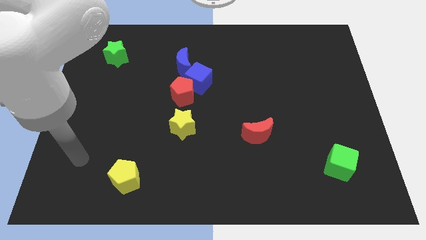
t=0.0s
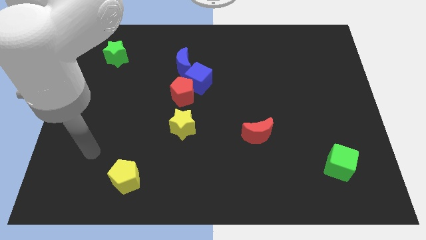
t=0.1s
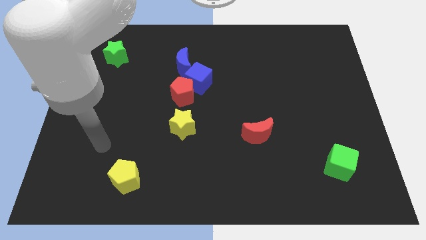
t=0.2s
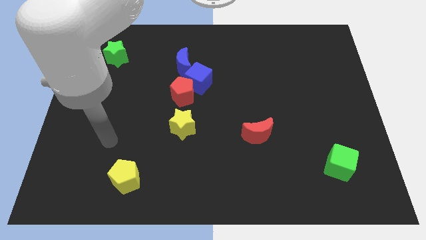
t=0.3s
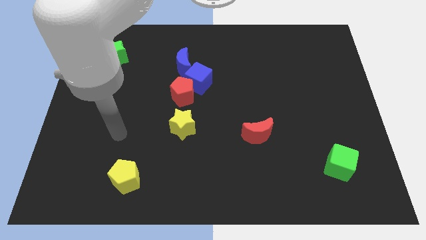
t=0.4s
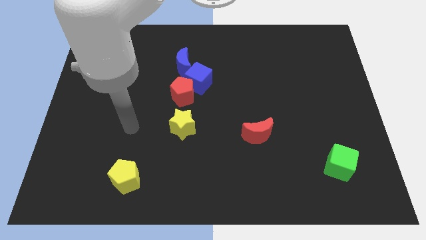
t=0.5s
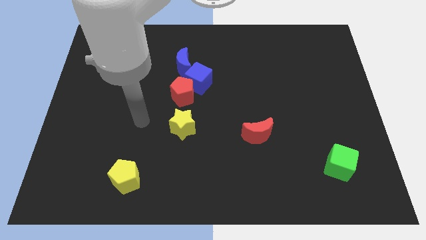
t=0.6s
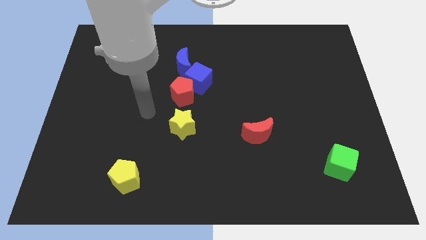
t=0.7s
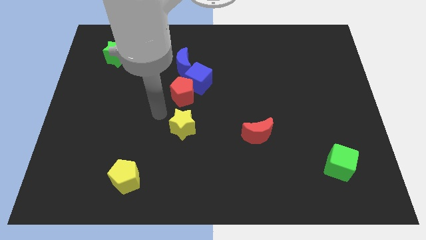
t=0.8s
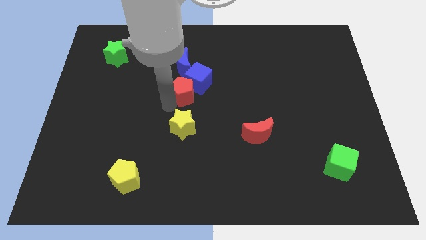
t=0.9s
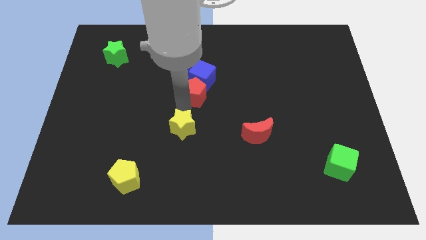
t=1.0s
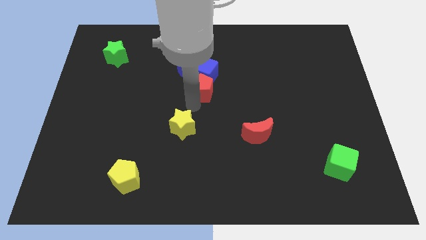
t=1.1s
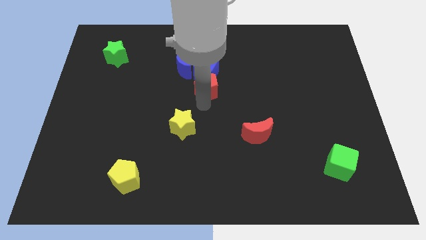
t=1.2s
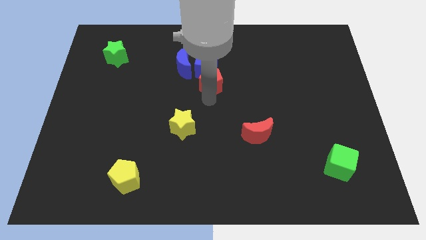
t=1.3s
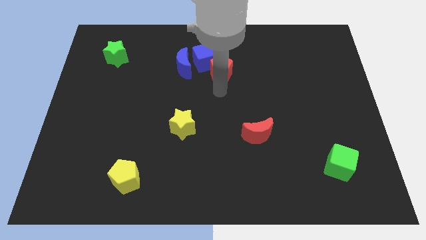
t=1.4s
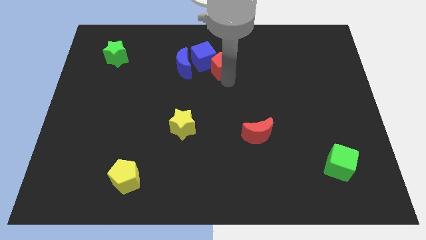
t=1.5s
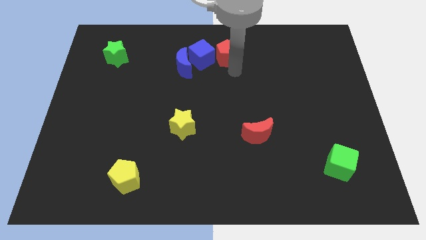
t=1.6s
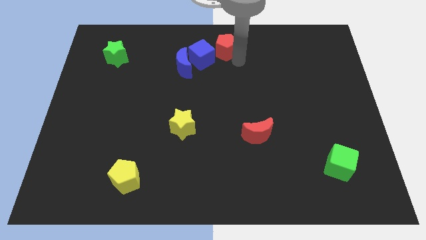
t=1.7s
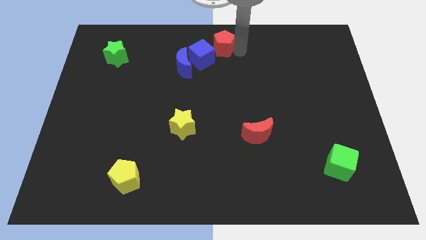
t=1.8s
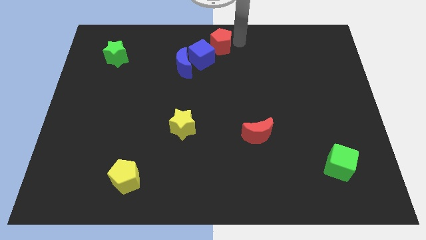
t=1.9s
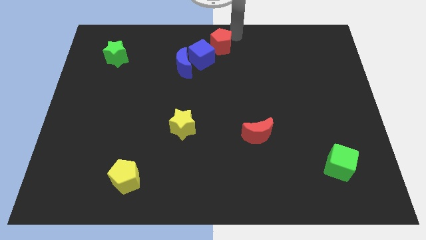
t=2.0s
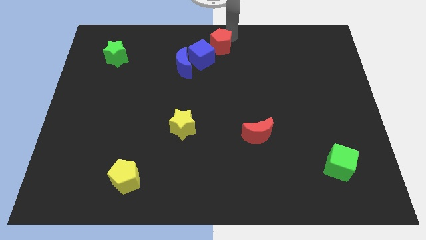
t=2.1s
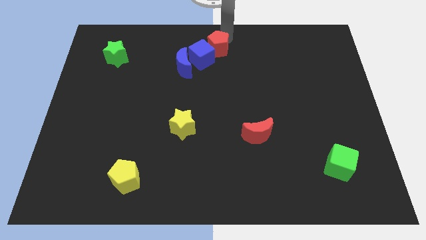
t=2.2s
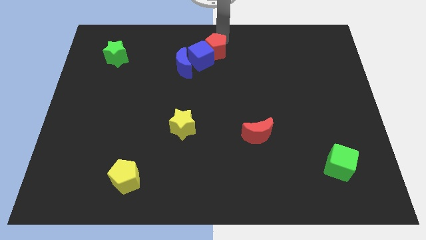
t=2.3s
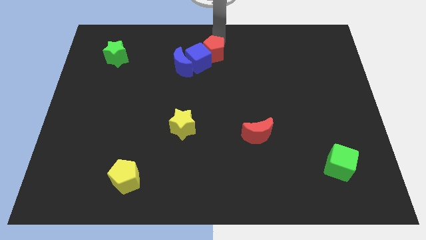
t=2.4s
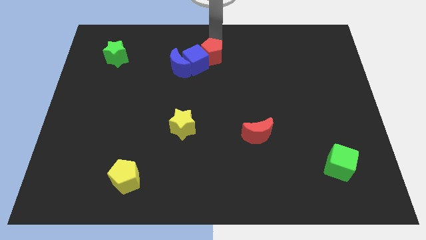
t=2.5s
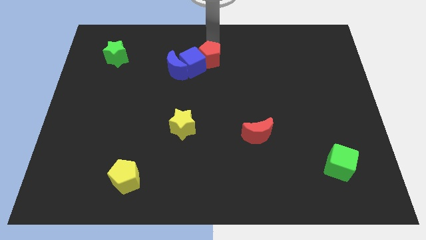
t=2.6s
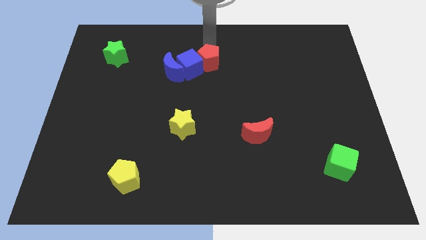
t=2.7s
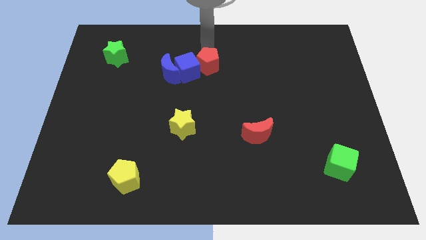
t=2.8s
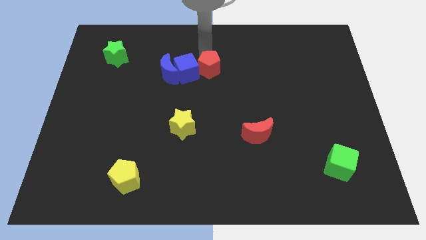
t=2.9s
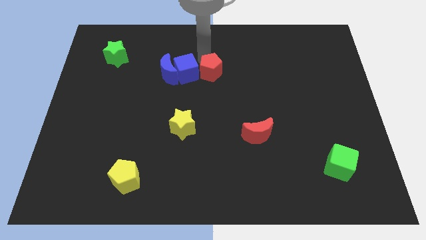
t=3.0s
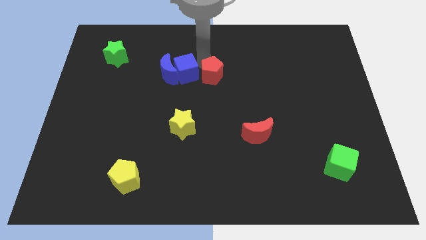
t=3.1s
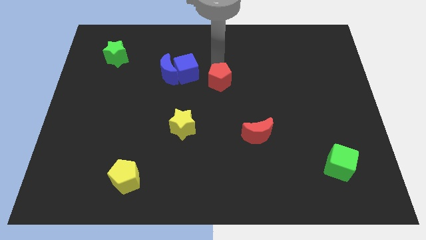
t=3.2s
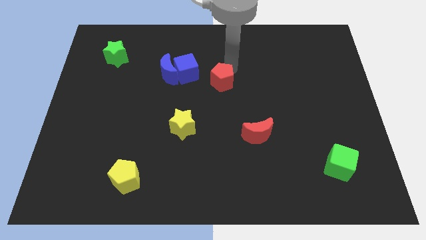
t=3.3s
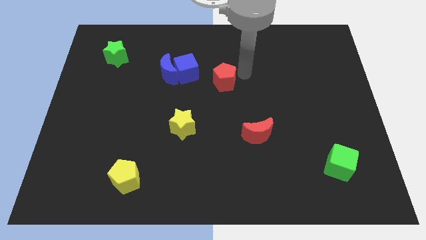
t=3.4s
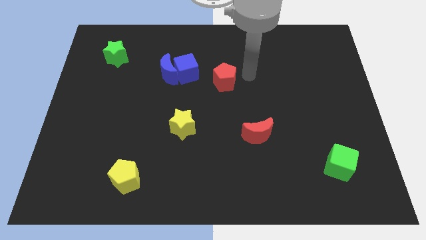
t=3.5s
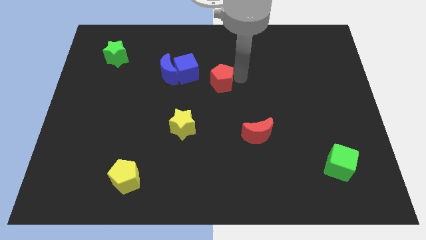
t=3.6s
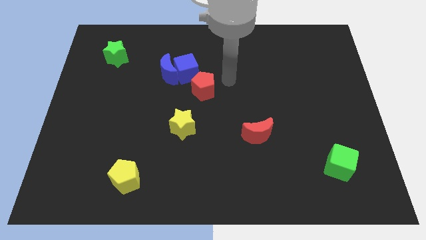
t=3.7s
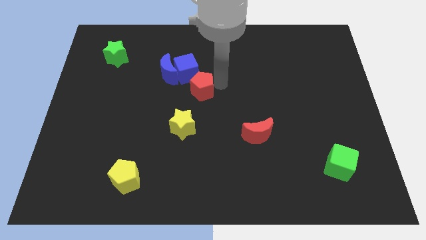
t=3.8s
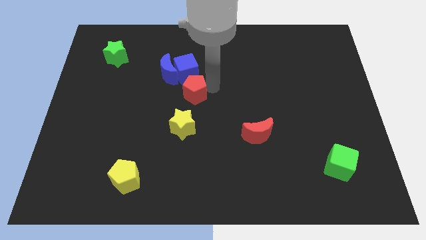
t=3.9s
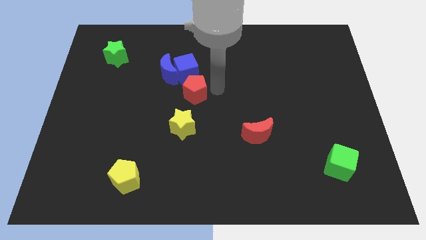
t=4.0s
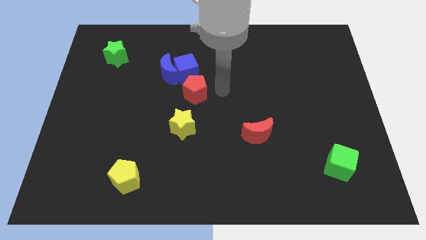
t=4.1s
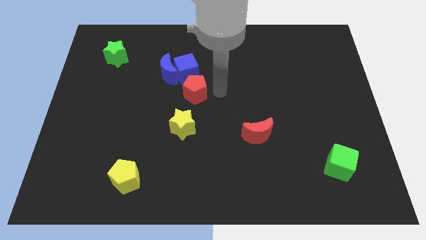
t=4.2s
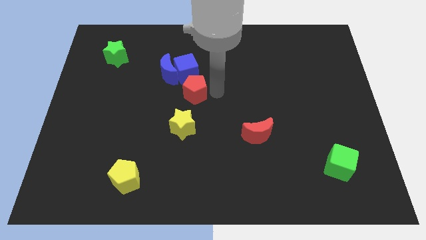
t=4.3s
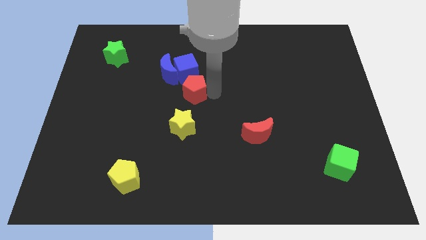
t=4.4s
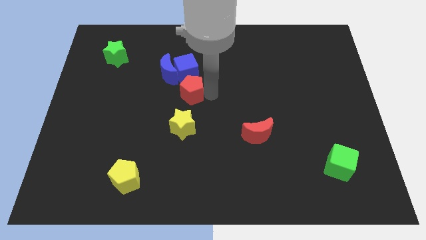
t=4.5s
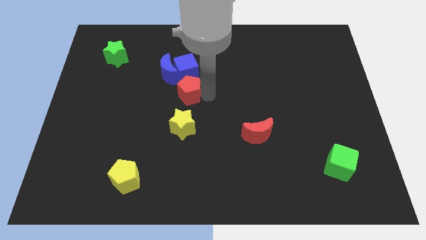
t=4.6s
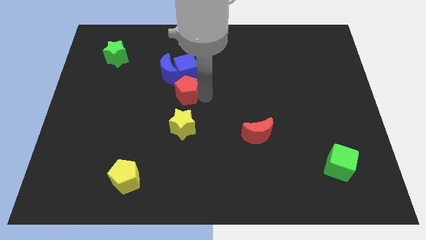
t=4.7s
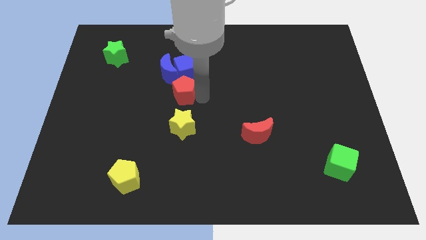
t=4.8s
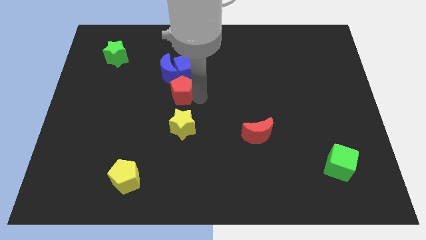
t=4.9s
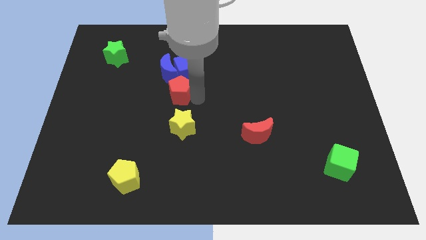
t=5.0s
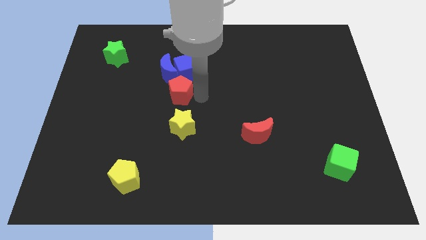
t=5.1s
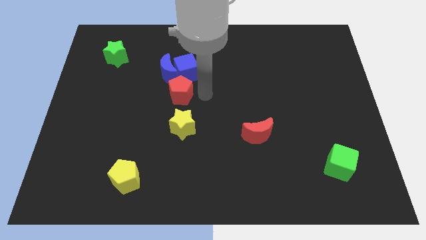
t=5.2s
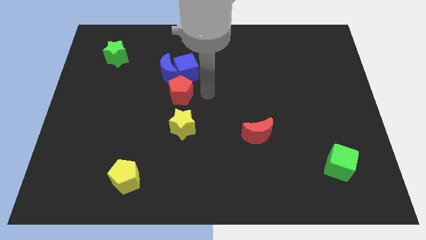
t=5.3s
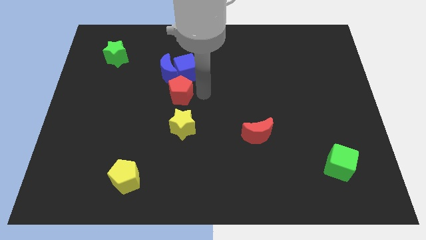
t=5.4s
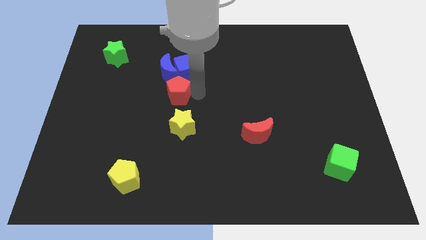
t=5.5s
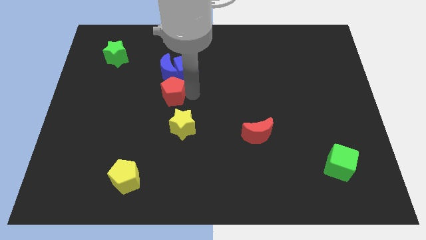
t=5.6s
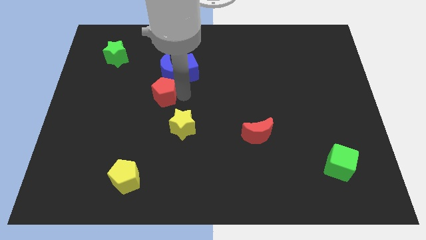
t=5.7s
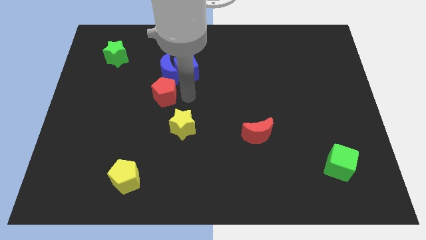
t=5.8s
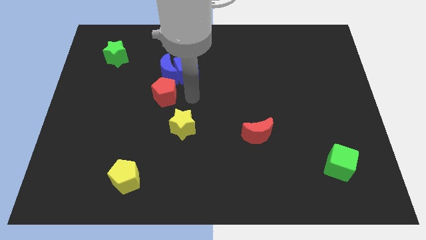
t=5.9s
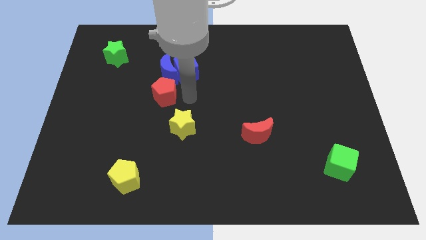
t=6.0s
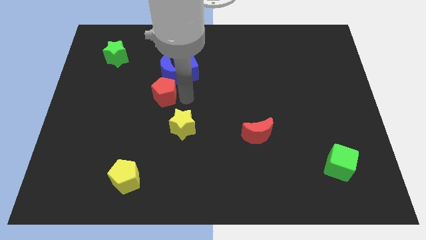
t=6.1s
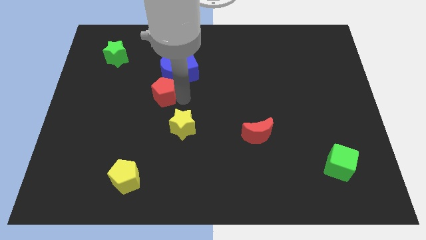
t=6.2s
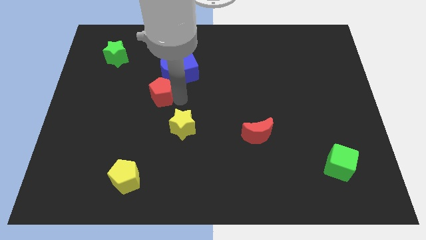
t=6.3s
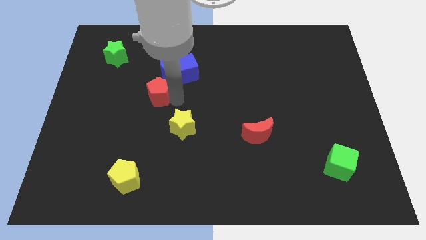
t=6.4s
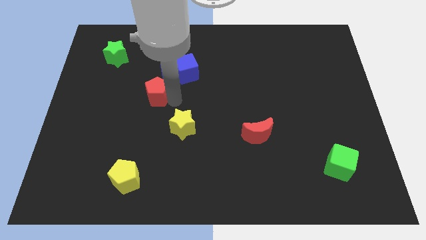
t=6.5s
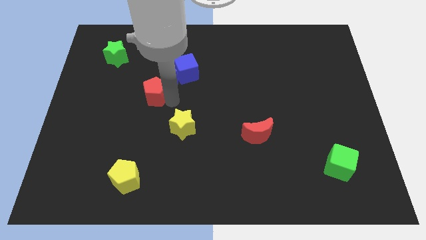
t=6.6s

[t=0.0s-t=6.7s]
move the red pentagon a little bit to the left

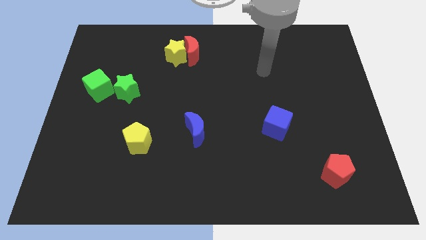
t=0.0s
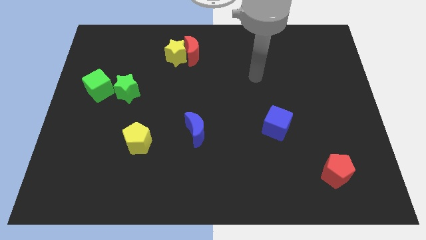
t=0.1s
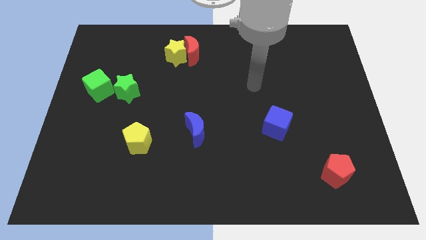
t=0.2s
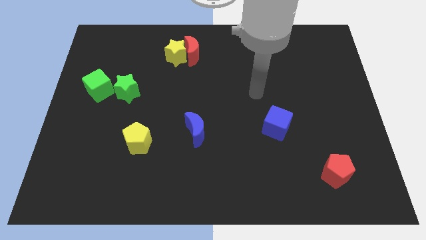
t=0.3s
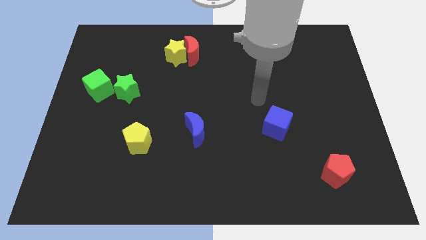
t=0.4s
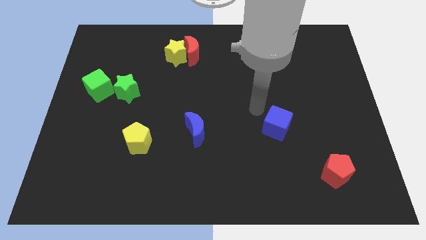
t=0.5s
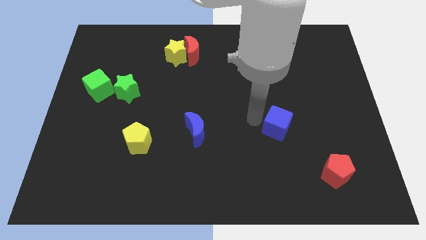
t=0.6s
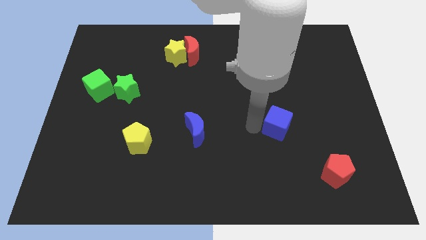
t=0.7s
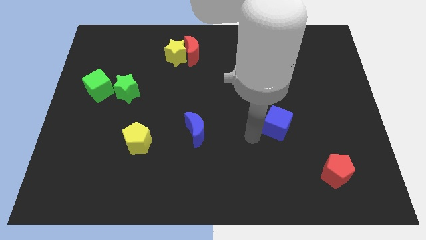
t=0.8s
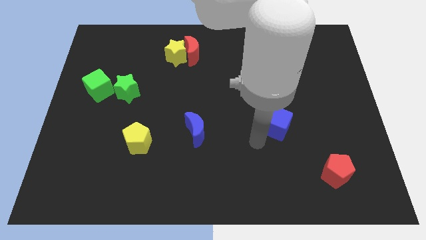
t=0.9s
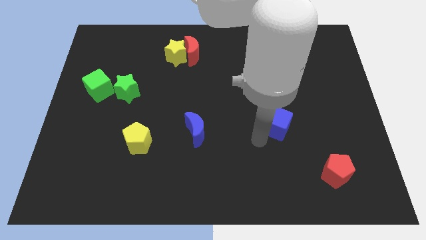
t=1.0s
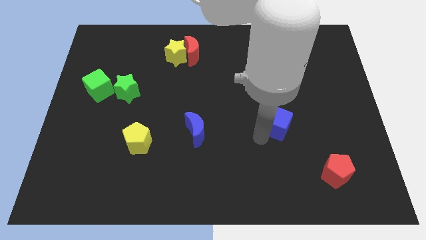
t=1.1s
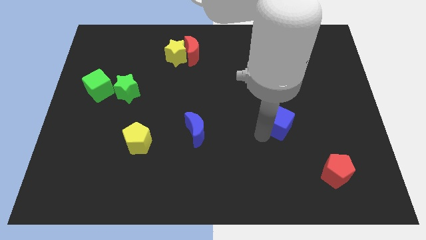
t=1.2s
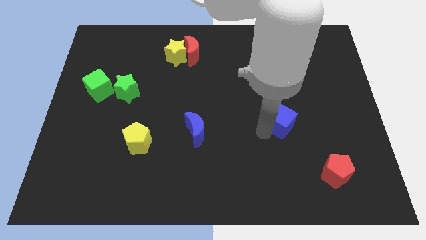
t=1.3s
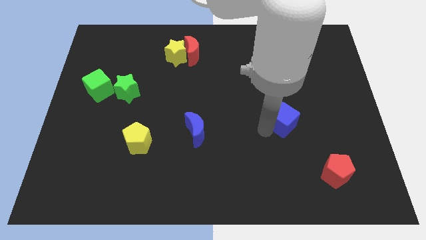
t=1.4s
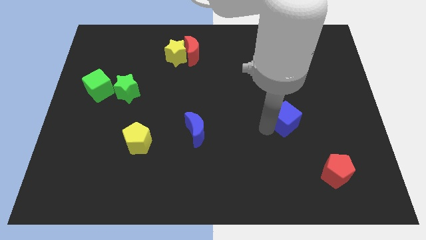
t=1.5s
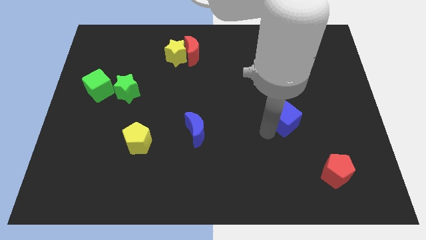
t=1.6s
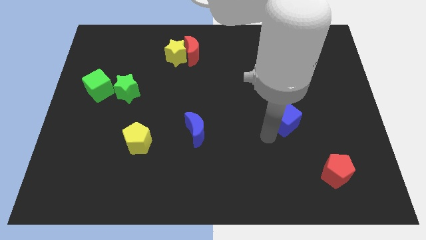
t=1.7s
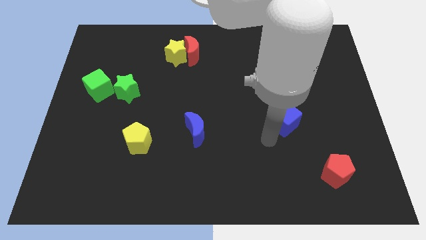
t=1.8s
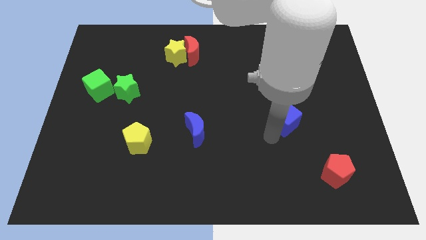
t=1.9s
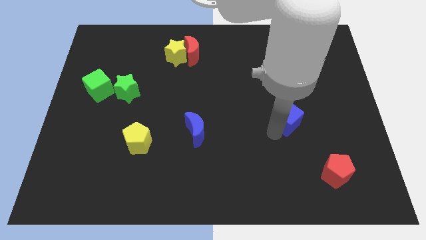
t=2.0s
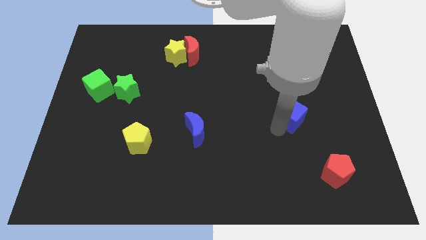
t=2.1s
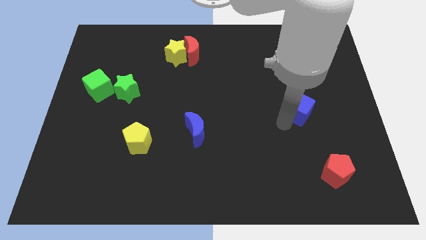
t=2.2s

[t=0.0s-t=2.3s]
slightly push the blue cube upwards and to the right diagonally
